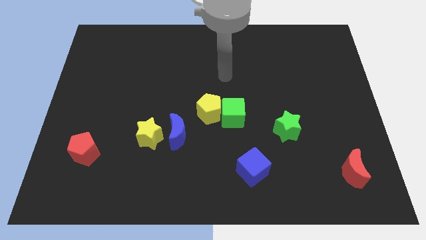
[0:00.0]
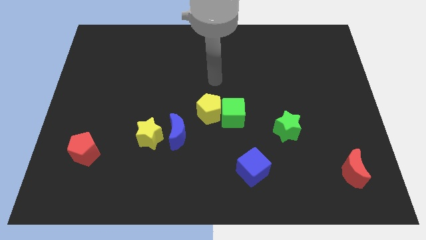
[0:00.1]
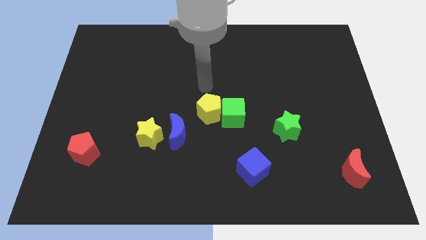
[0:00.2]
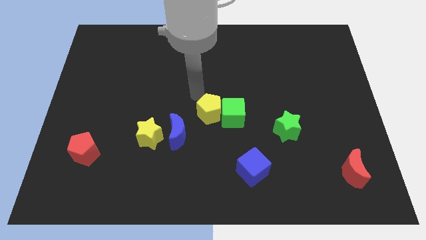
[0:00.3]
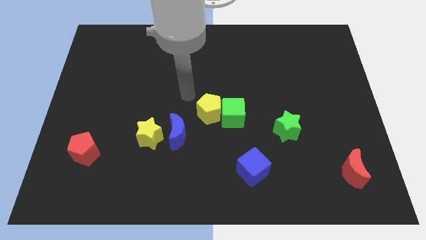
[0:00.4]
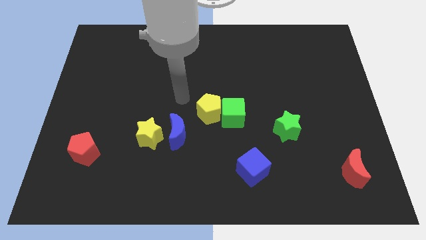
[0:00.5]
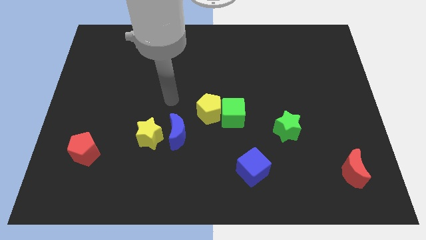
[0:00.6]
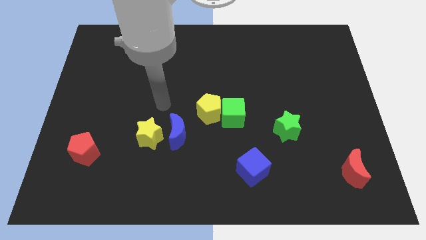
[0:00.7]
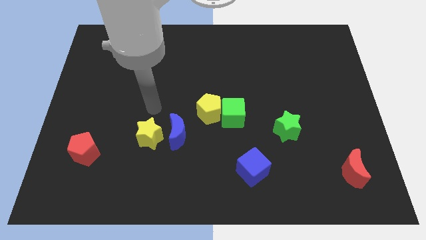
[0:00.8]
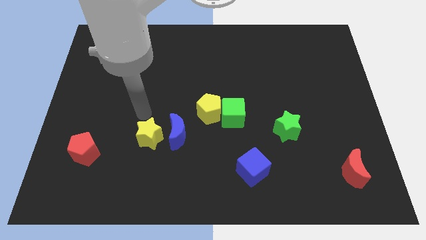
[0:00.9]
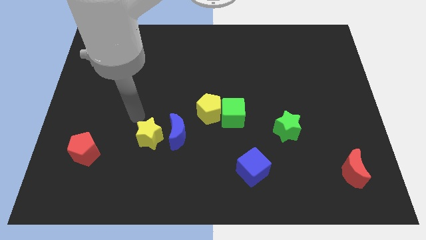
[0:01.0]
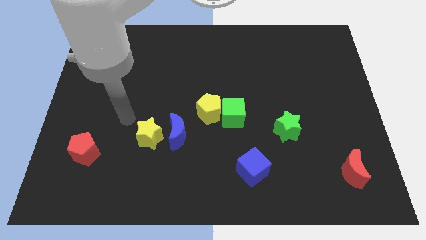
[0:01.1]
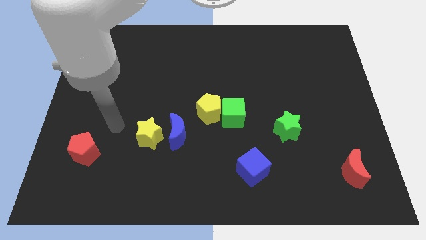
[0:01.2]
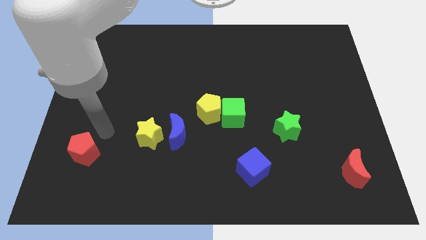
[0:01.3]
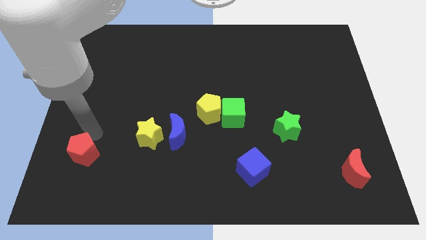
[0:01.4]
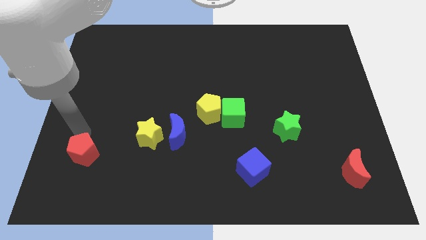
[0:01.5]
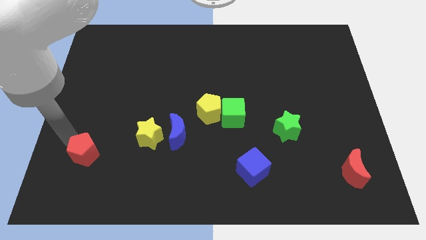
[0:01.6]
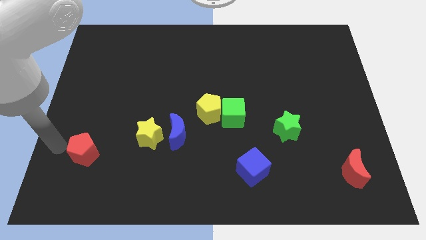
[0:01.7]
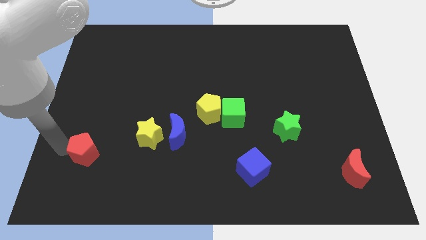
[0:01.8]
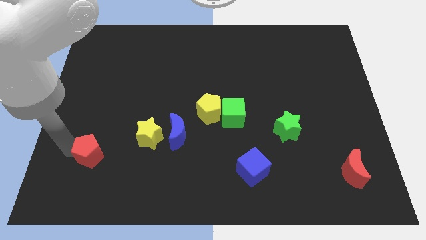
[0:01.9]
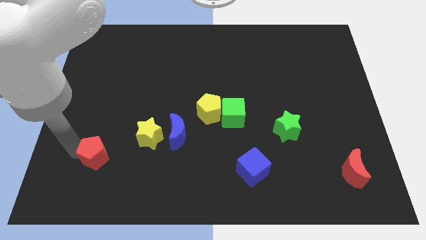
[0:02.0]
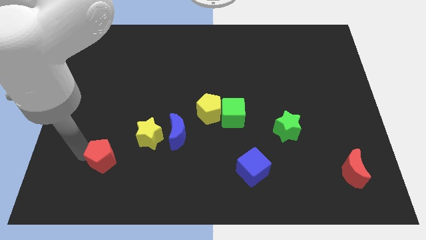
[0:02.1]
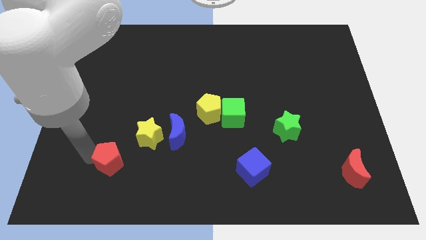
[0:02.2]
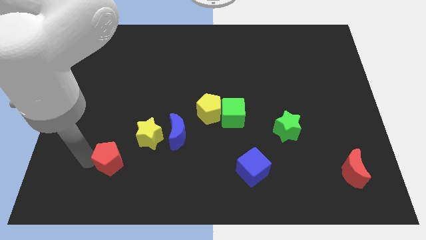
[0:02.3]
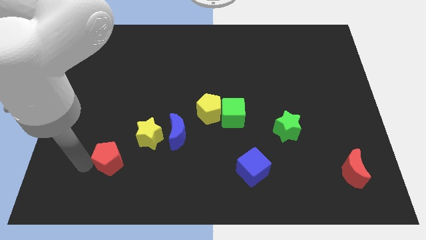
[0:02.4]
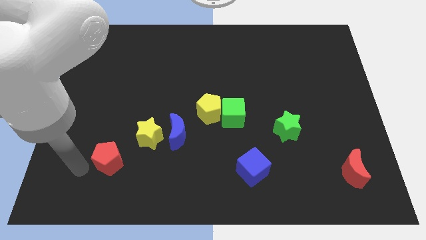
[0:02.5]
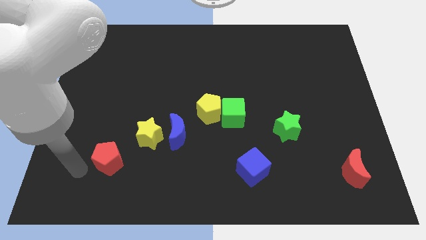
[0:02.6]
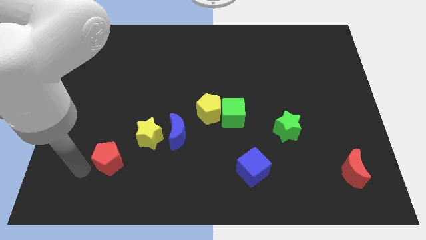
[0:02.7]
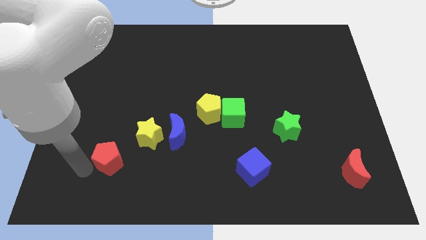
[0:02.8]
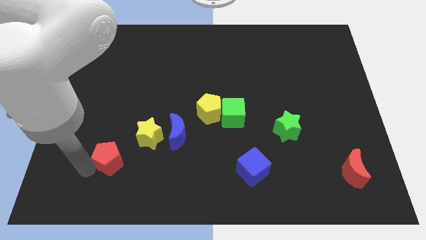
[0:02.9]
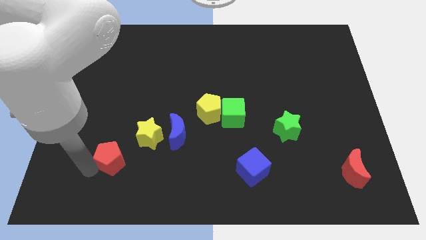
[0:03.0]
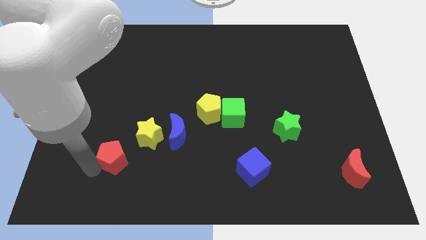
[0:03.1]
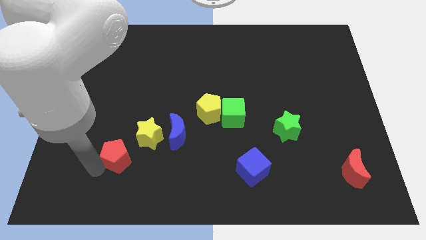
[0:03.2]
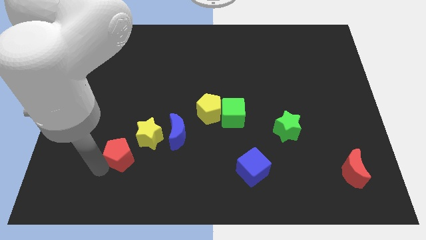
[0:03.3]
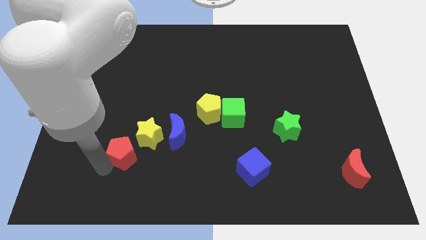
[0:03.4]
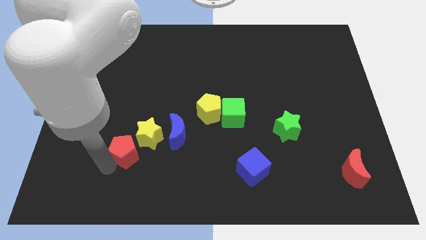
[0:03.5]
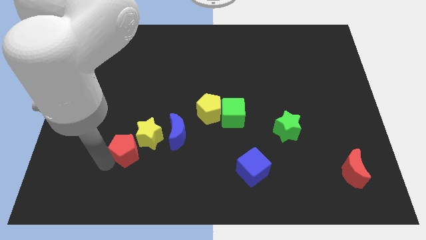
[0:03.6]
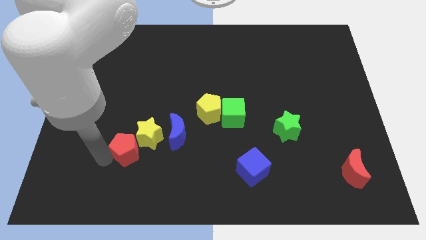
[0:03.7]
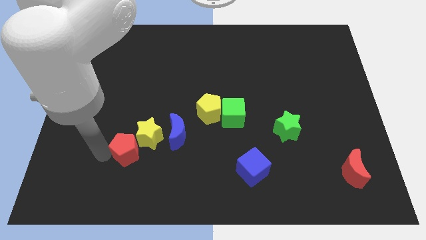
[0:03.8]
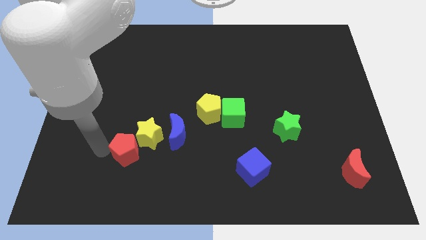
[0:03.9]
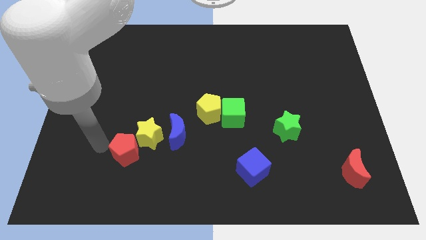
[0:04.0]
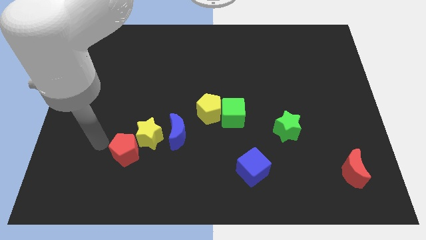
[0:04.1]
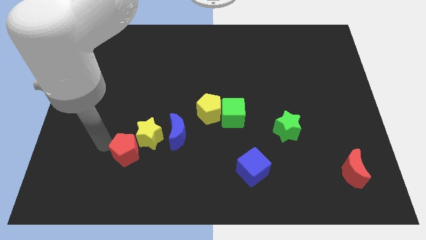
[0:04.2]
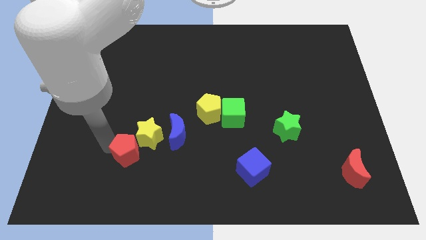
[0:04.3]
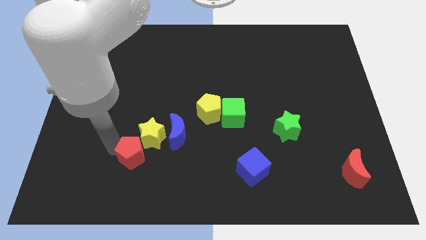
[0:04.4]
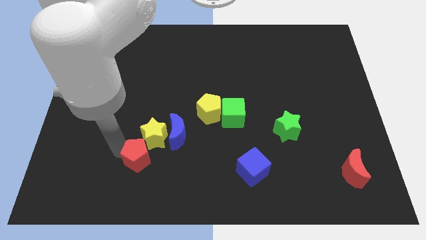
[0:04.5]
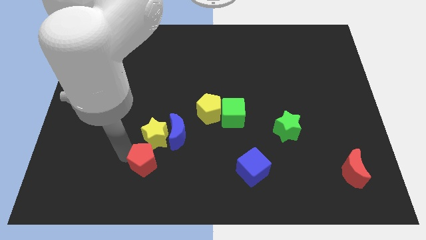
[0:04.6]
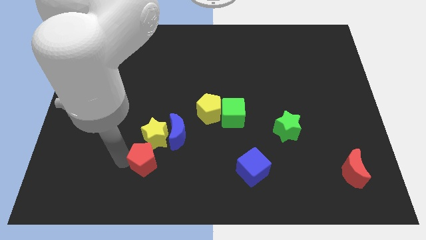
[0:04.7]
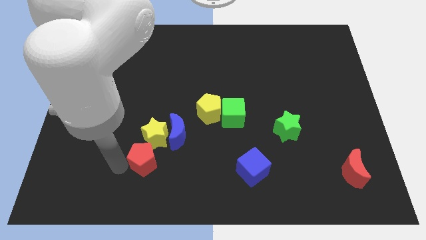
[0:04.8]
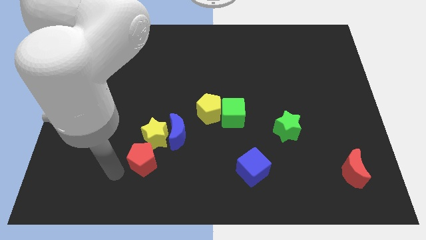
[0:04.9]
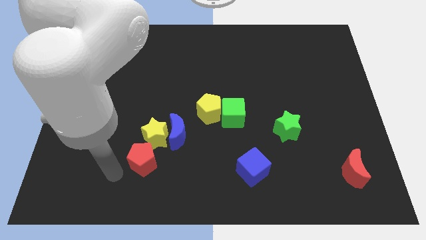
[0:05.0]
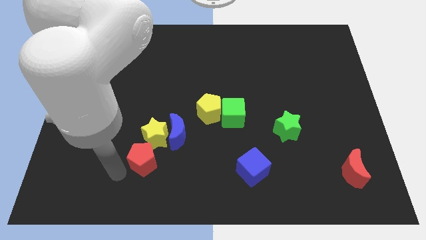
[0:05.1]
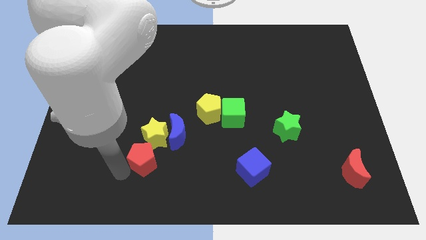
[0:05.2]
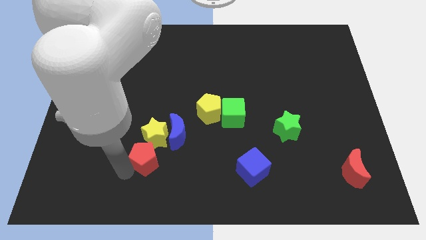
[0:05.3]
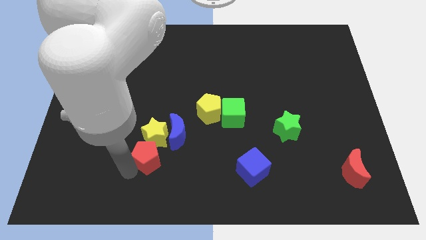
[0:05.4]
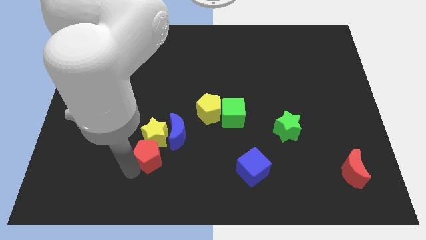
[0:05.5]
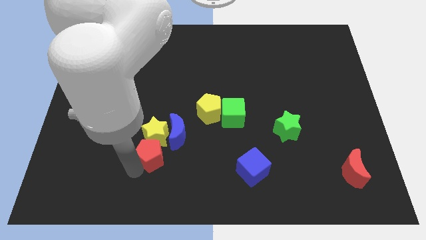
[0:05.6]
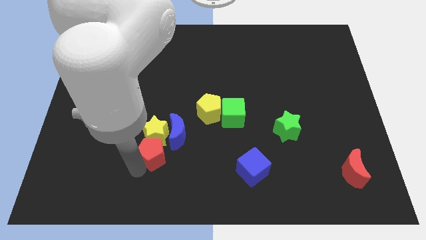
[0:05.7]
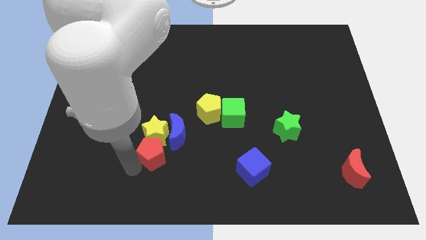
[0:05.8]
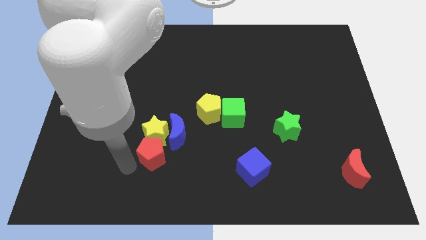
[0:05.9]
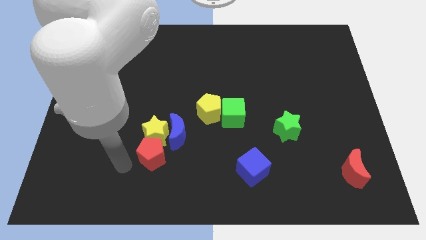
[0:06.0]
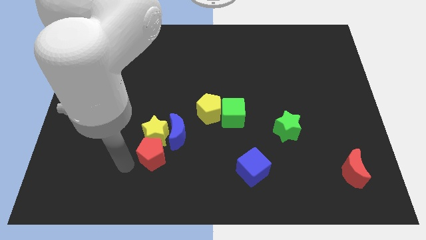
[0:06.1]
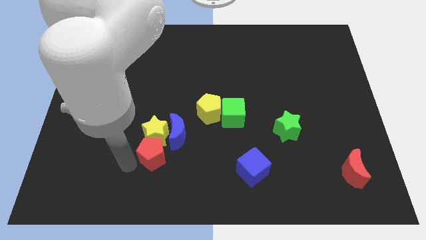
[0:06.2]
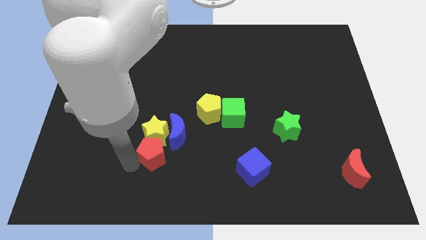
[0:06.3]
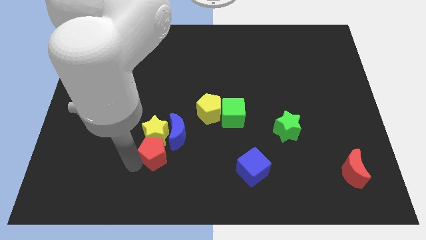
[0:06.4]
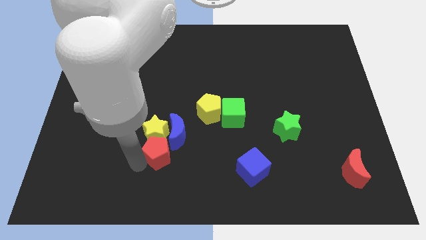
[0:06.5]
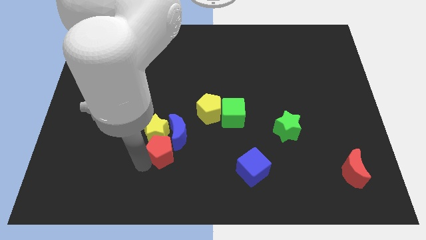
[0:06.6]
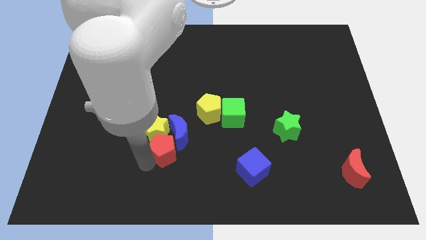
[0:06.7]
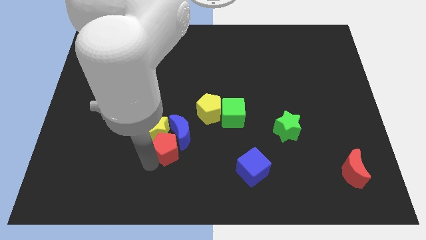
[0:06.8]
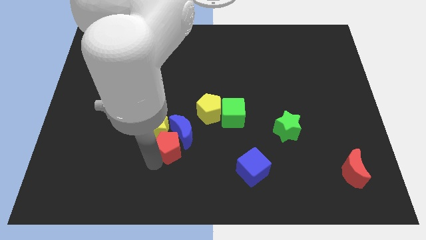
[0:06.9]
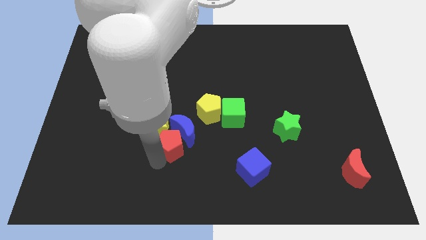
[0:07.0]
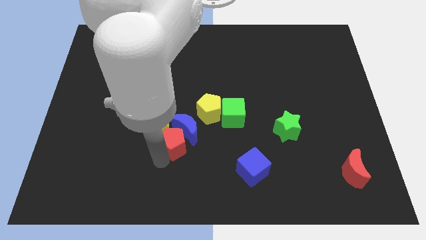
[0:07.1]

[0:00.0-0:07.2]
move the red pentagon just right of the yellow star

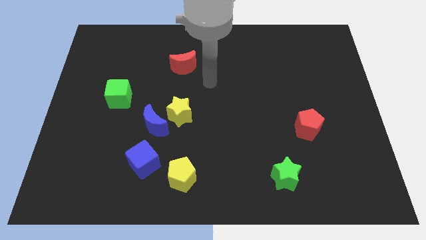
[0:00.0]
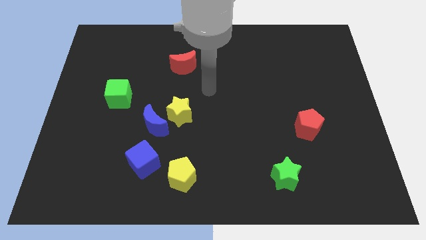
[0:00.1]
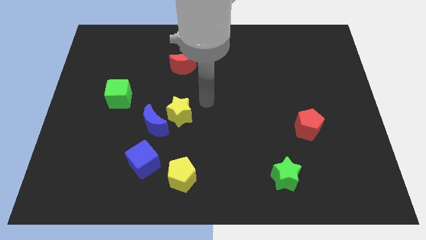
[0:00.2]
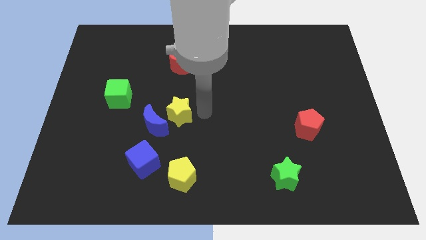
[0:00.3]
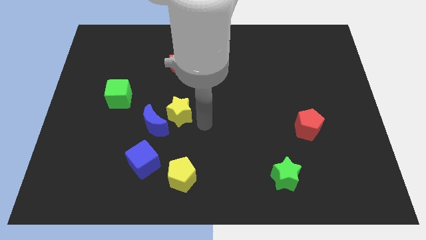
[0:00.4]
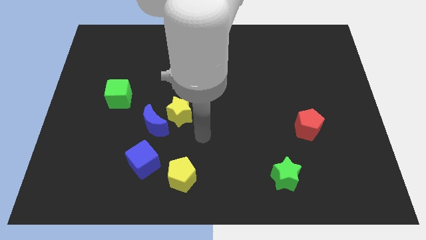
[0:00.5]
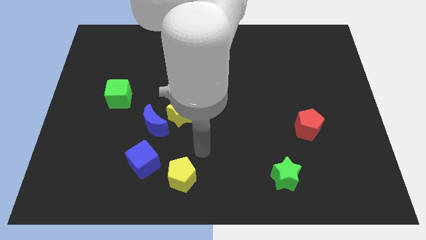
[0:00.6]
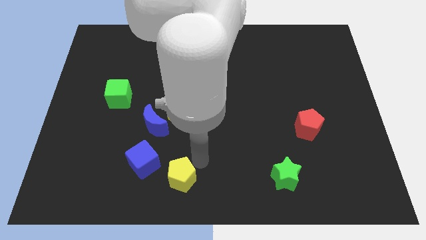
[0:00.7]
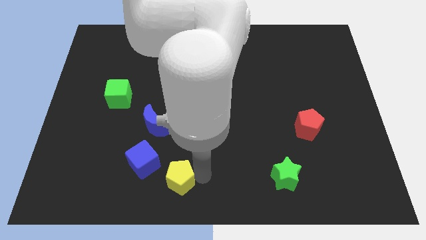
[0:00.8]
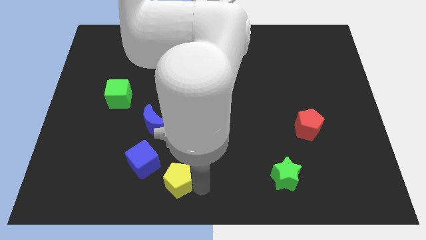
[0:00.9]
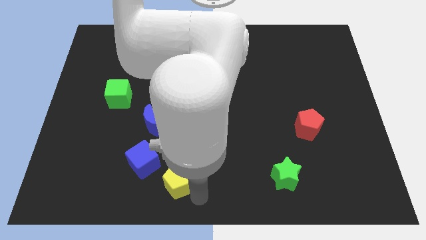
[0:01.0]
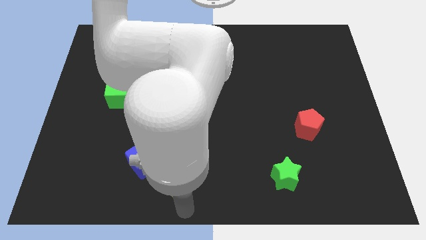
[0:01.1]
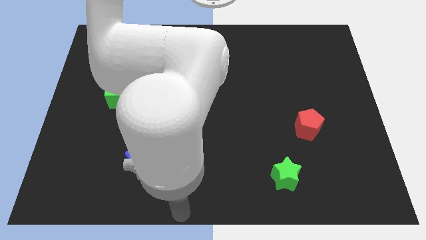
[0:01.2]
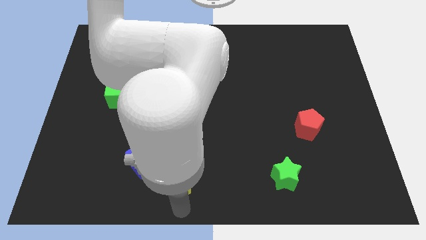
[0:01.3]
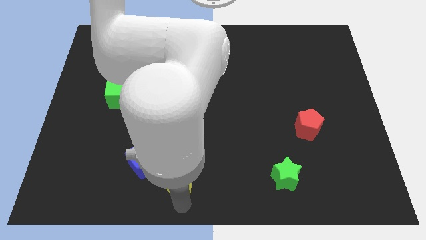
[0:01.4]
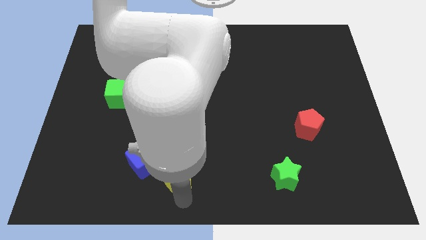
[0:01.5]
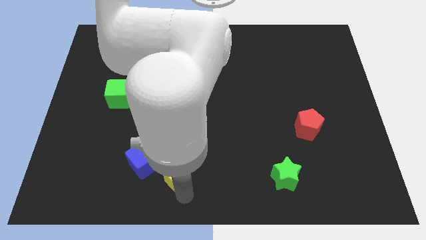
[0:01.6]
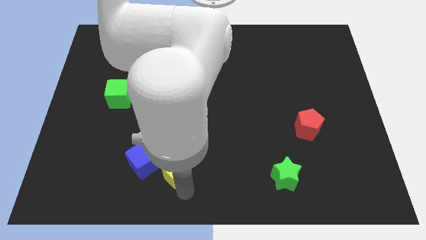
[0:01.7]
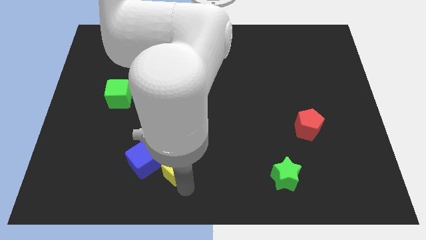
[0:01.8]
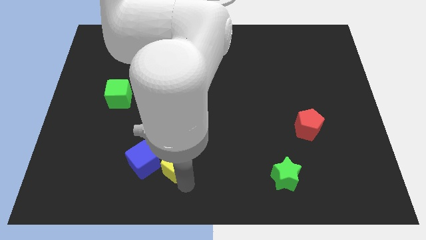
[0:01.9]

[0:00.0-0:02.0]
move the yellow pentagon to the bottom right of the blue moon
